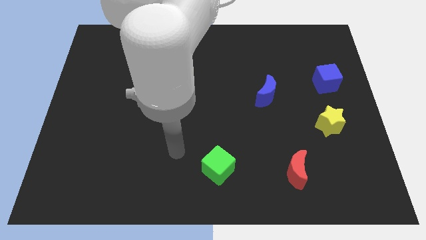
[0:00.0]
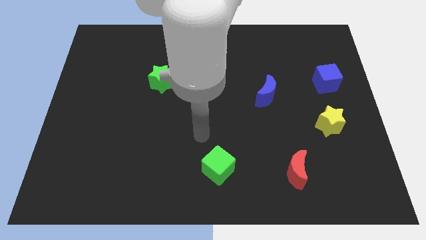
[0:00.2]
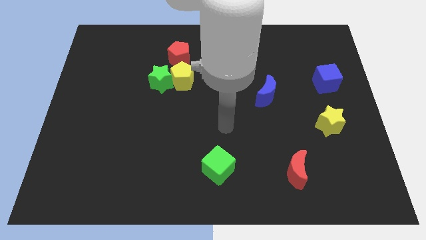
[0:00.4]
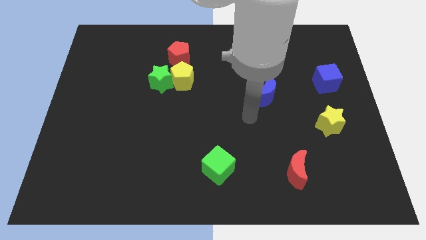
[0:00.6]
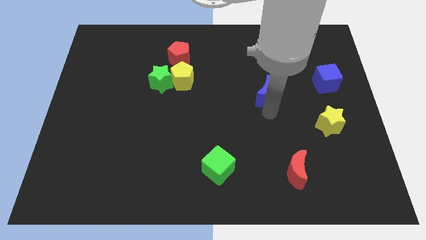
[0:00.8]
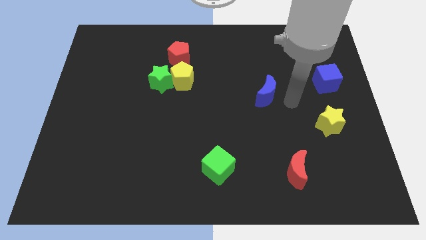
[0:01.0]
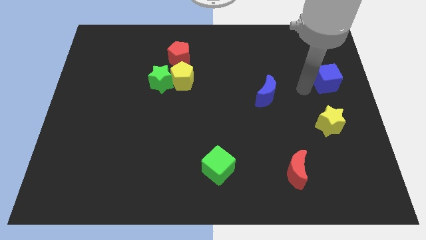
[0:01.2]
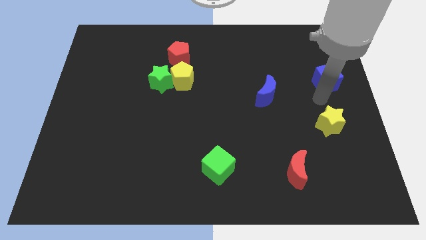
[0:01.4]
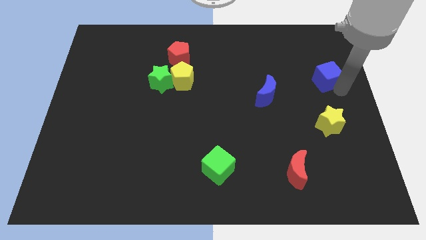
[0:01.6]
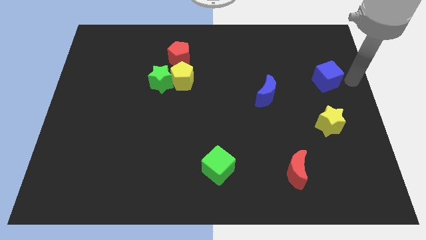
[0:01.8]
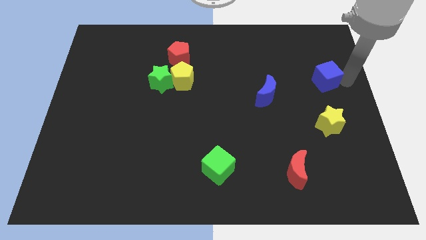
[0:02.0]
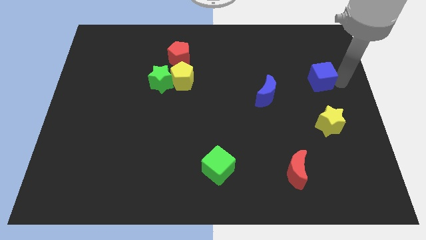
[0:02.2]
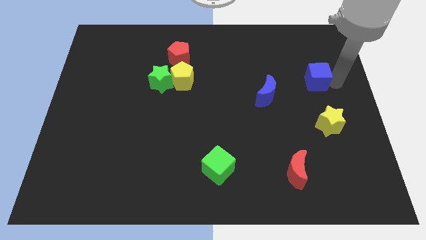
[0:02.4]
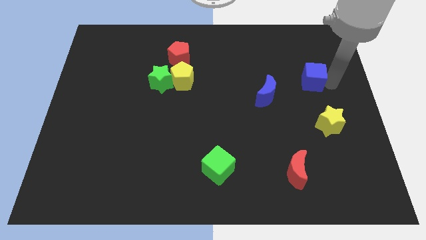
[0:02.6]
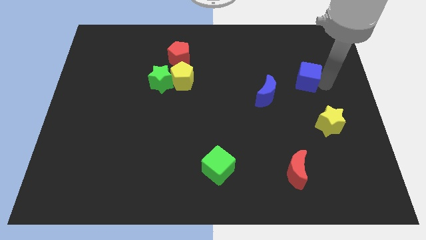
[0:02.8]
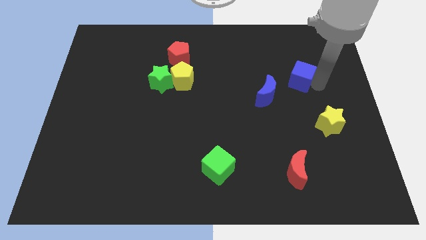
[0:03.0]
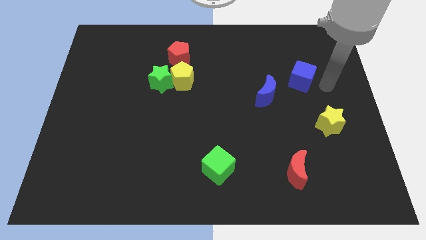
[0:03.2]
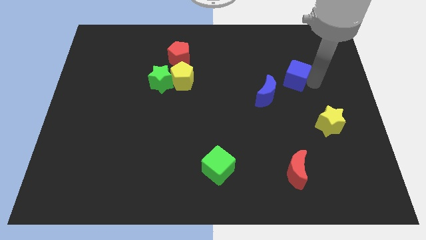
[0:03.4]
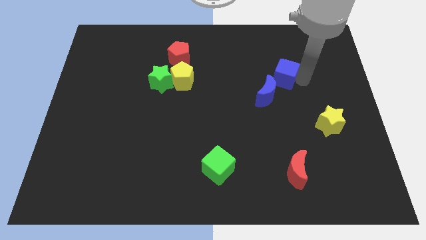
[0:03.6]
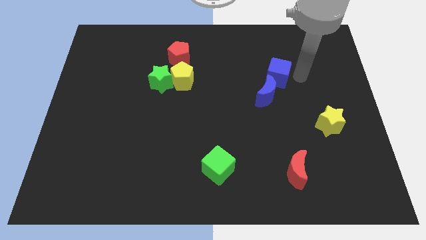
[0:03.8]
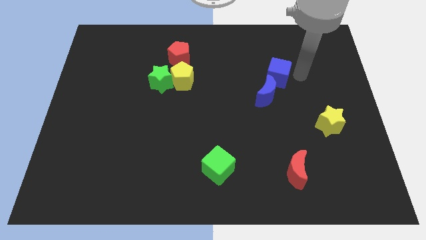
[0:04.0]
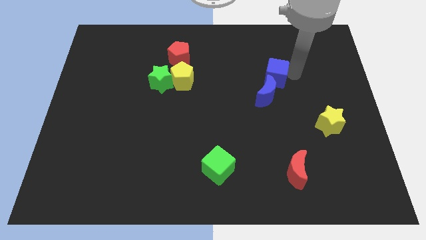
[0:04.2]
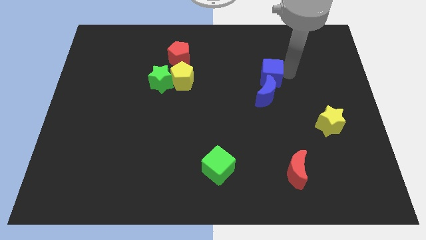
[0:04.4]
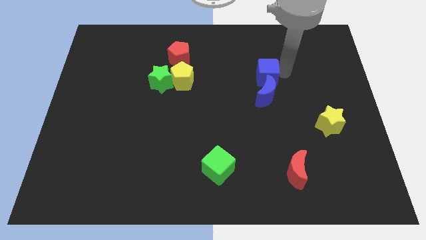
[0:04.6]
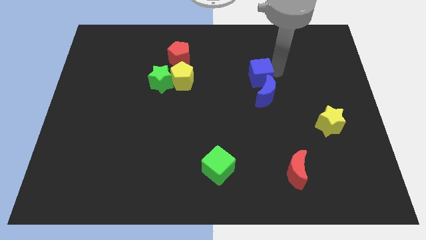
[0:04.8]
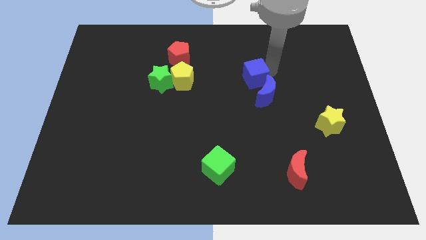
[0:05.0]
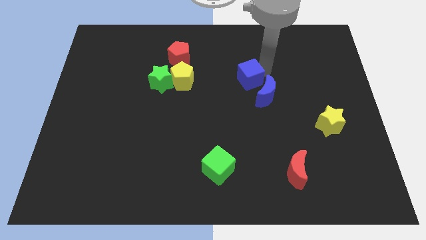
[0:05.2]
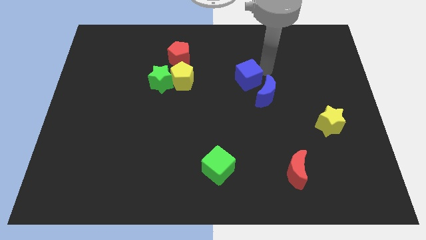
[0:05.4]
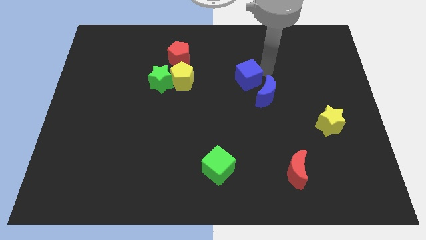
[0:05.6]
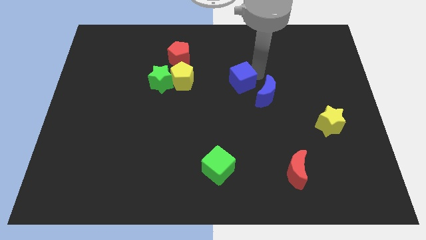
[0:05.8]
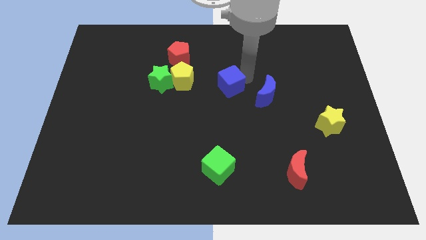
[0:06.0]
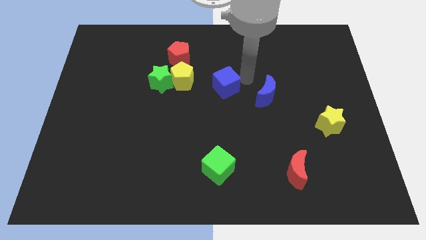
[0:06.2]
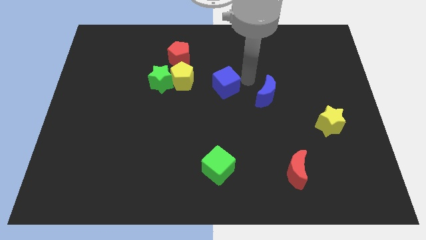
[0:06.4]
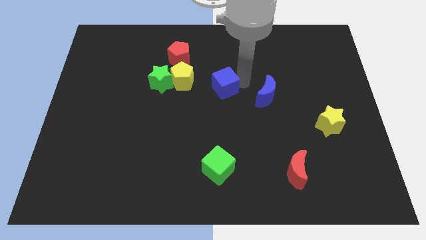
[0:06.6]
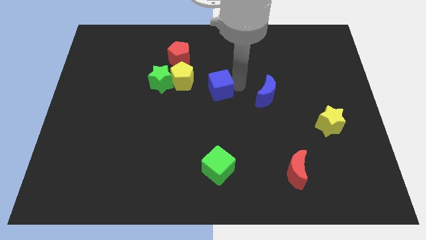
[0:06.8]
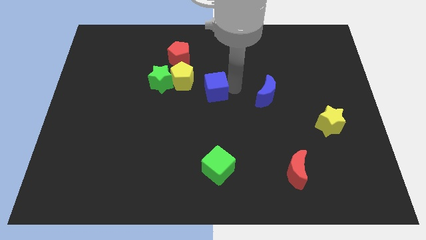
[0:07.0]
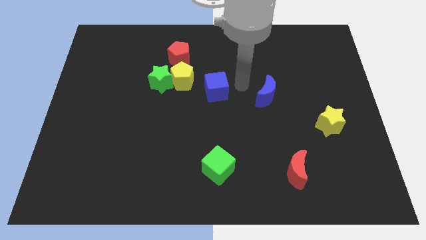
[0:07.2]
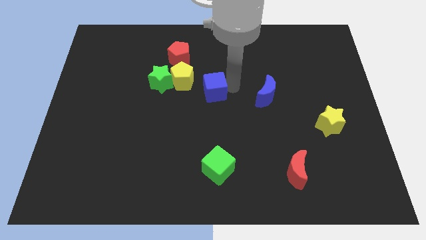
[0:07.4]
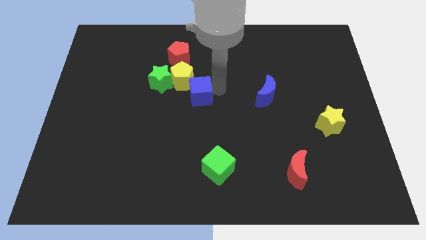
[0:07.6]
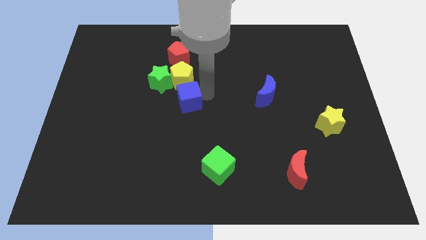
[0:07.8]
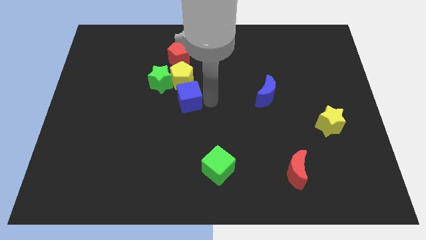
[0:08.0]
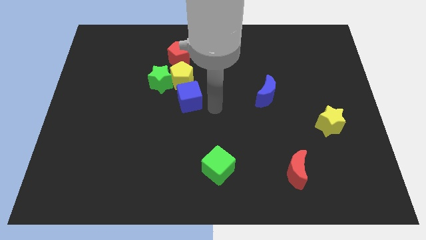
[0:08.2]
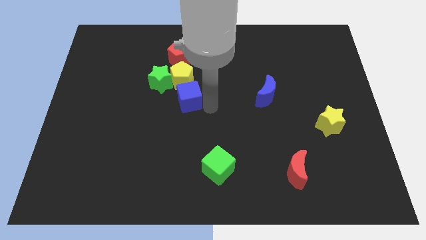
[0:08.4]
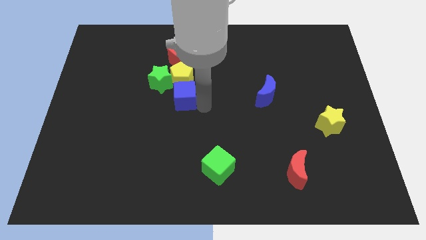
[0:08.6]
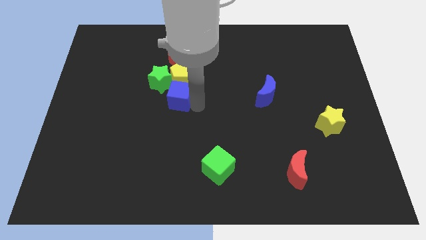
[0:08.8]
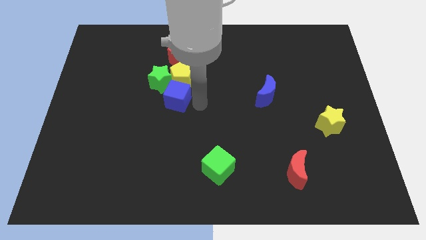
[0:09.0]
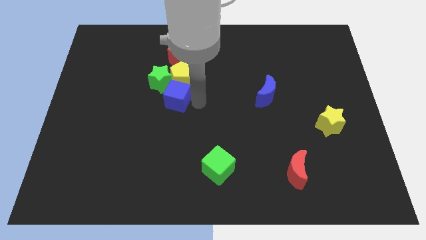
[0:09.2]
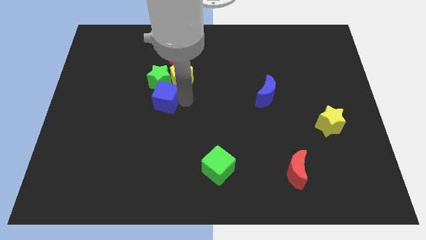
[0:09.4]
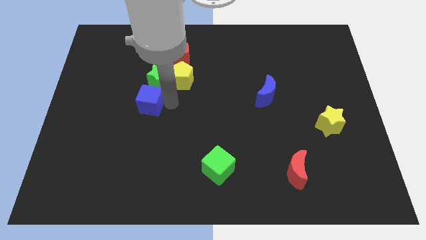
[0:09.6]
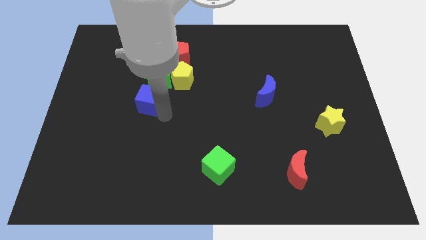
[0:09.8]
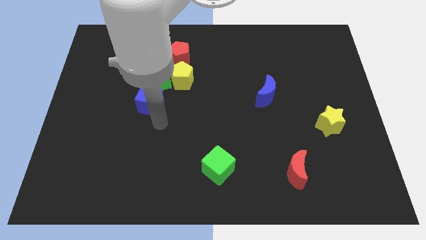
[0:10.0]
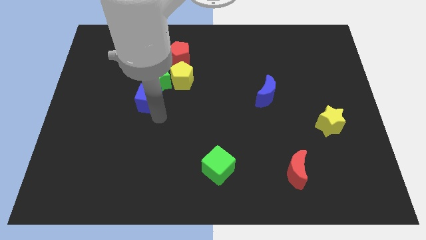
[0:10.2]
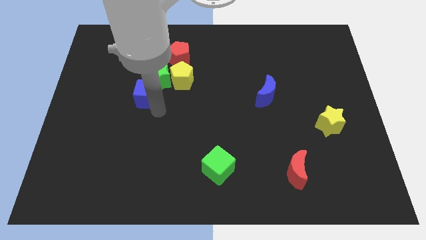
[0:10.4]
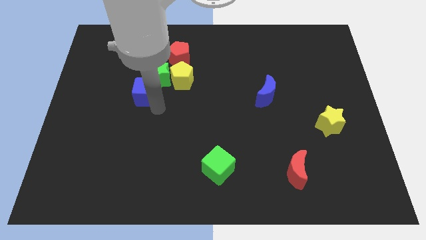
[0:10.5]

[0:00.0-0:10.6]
put the blue cube left of the yellow pentagon

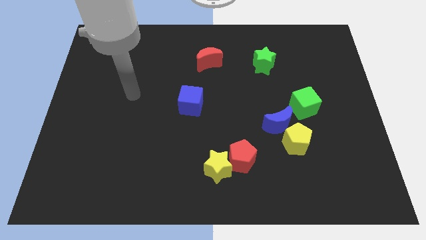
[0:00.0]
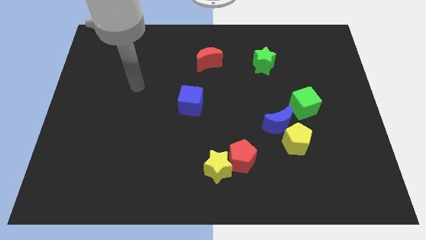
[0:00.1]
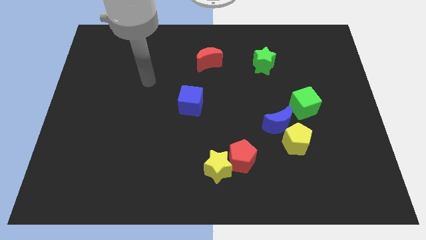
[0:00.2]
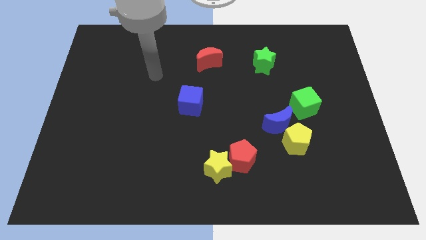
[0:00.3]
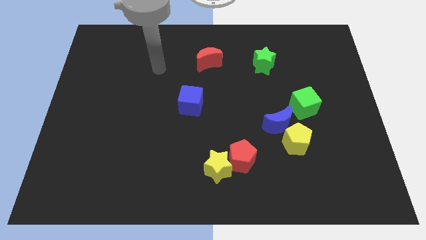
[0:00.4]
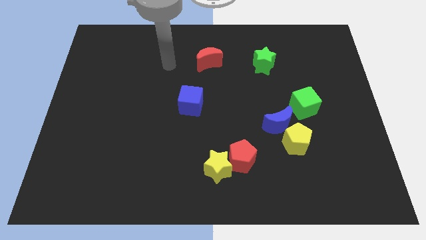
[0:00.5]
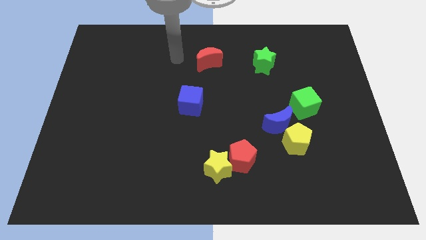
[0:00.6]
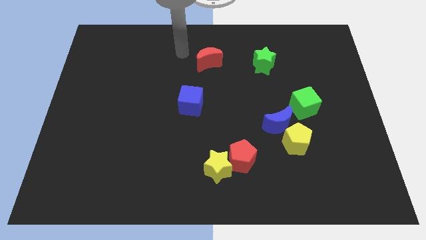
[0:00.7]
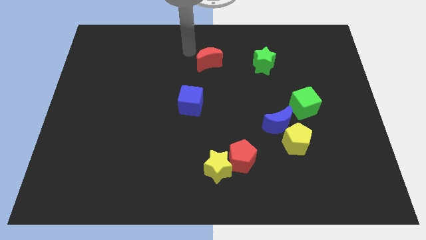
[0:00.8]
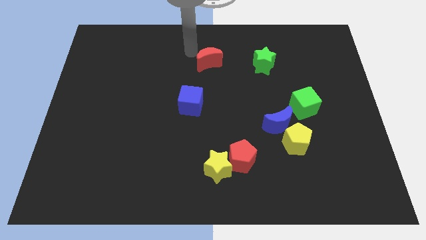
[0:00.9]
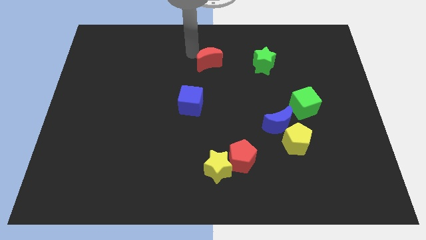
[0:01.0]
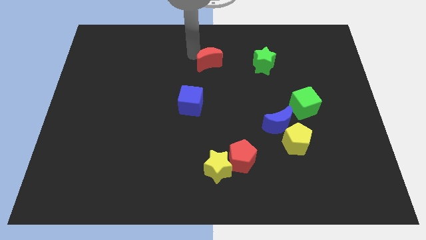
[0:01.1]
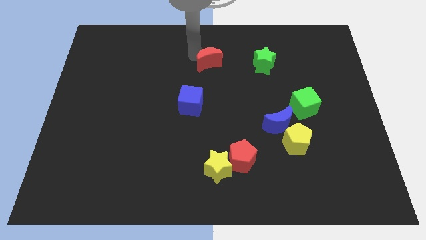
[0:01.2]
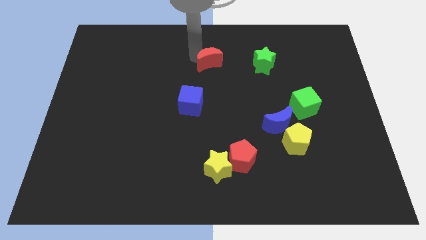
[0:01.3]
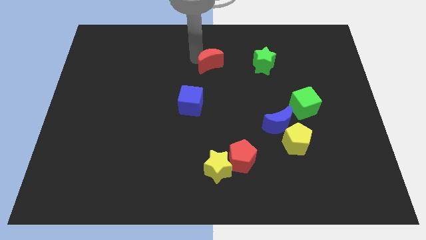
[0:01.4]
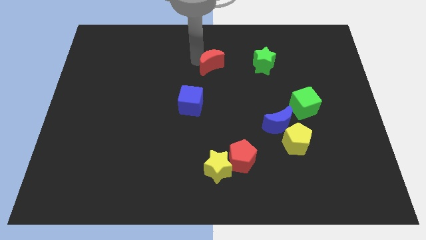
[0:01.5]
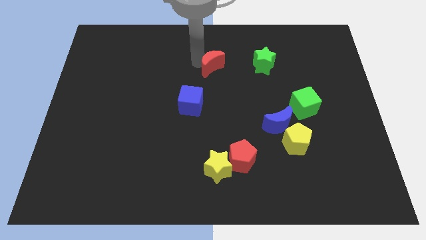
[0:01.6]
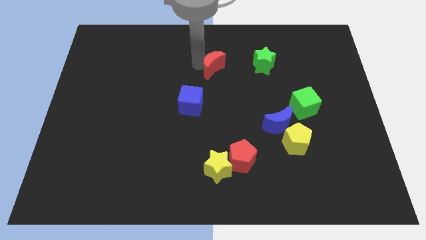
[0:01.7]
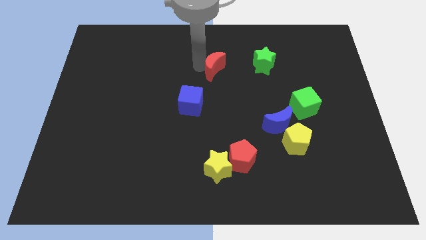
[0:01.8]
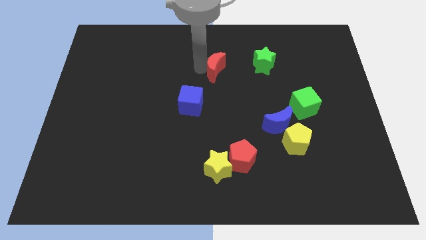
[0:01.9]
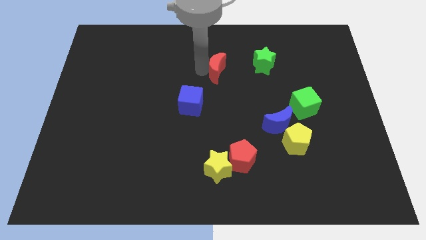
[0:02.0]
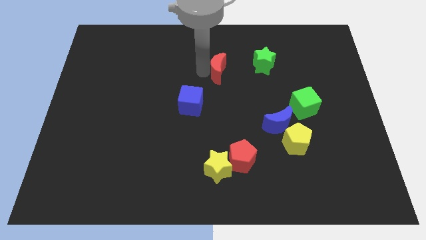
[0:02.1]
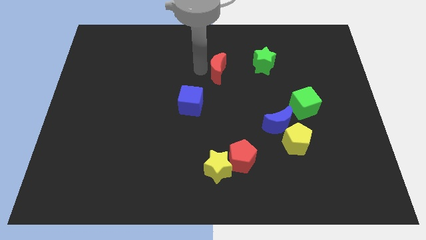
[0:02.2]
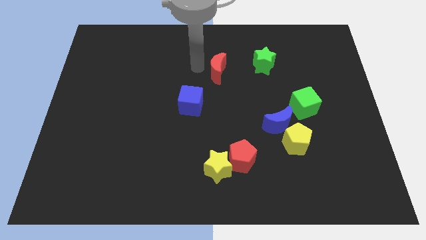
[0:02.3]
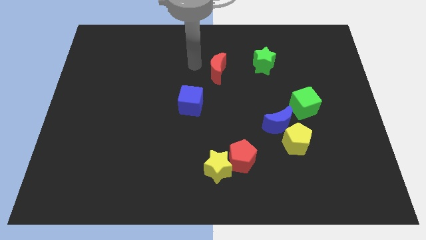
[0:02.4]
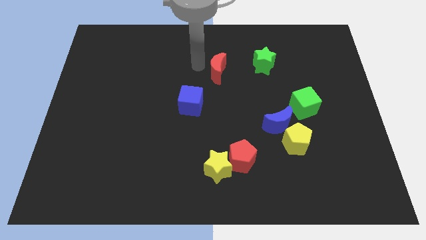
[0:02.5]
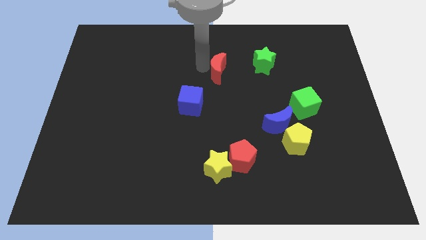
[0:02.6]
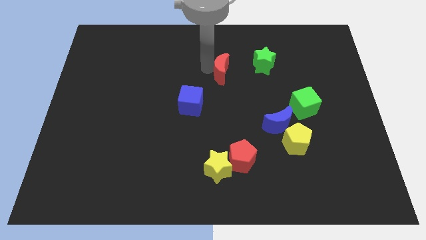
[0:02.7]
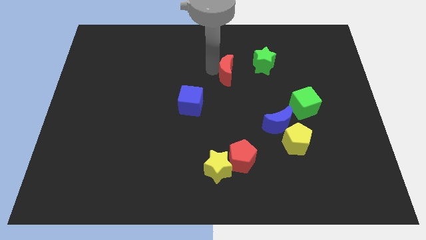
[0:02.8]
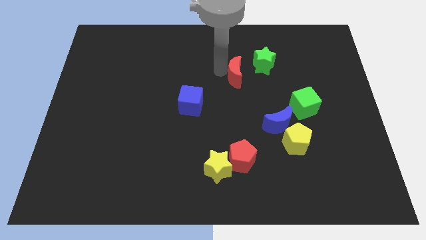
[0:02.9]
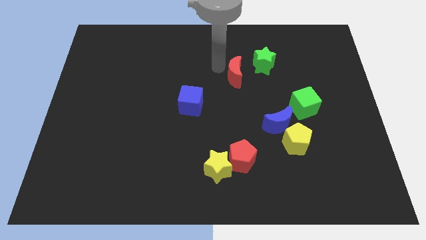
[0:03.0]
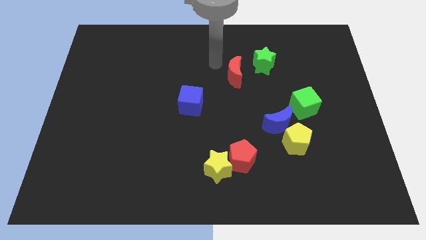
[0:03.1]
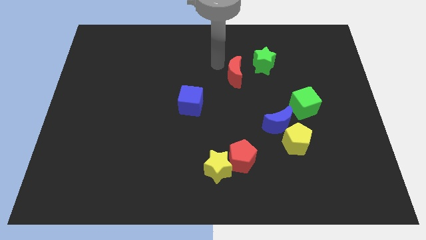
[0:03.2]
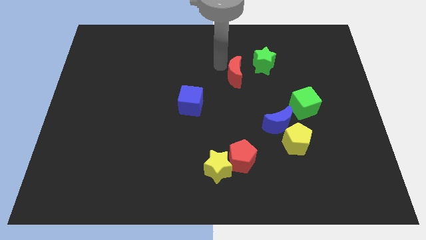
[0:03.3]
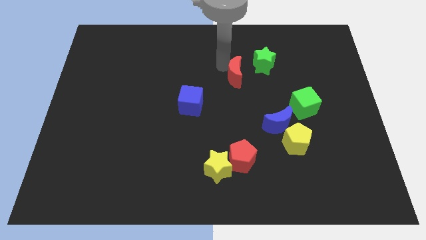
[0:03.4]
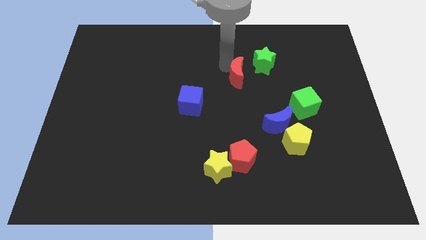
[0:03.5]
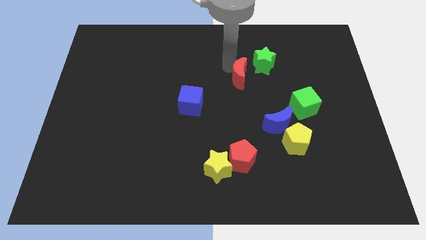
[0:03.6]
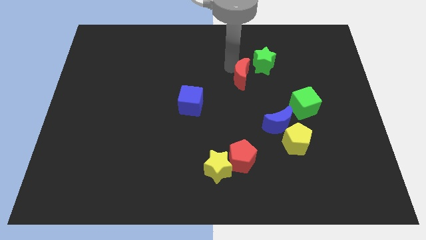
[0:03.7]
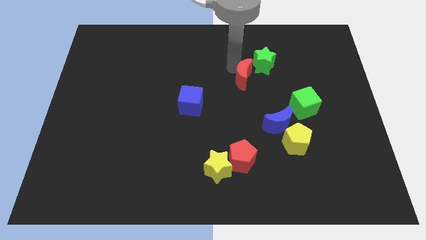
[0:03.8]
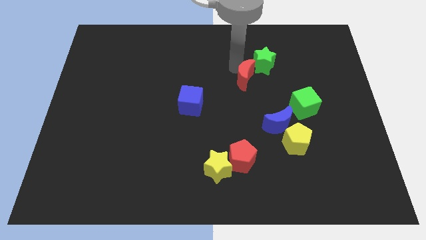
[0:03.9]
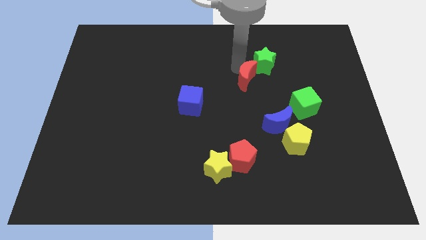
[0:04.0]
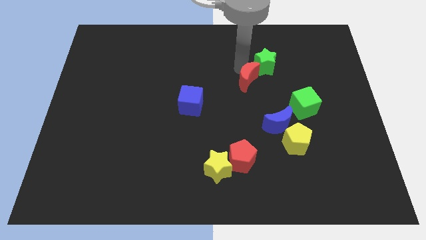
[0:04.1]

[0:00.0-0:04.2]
slide the red moon to the bottom of the green star
